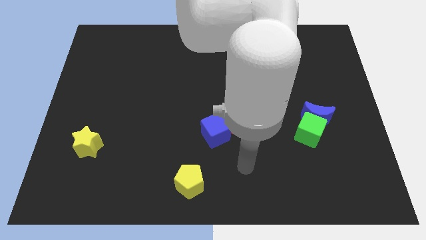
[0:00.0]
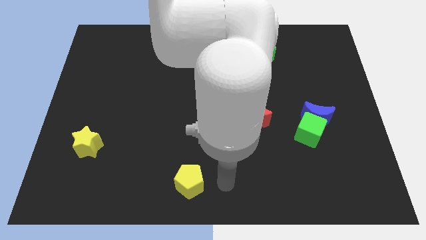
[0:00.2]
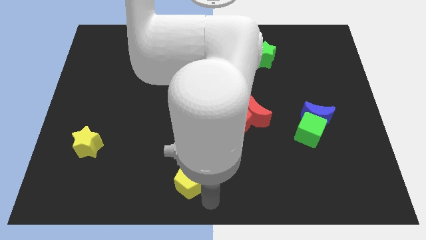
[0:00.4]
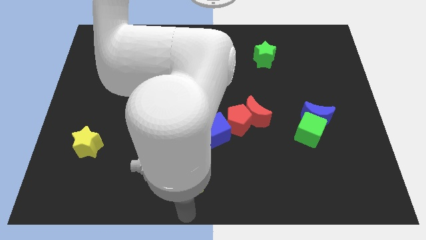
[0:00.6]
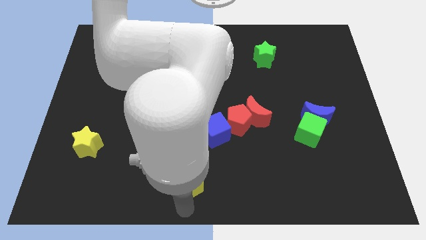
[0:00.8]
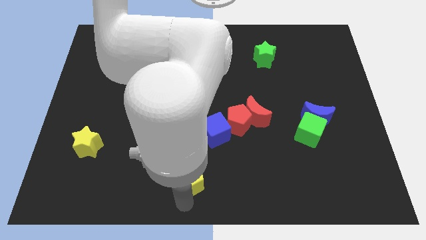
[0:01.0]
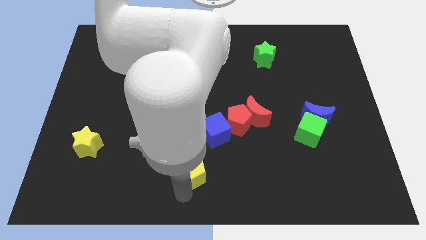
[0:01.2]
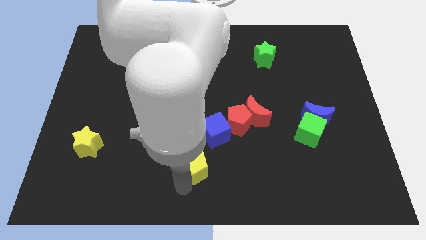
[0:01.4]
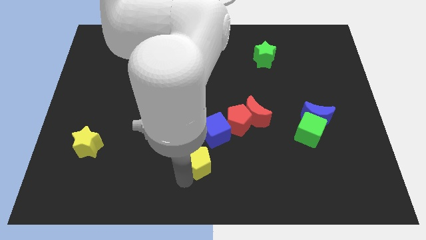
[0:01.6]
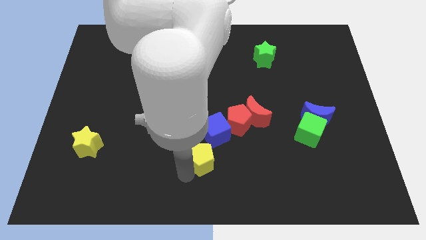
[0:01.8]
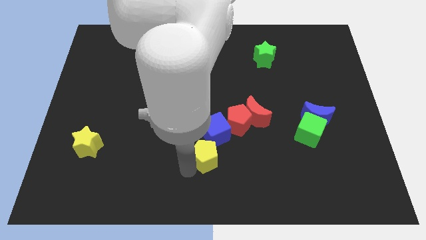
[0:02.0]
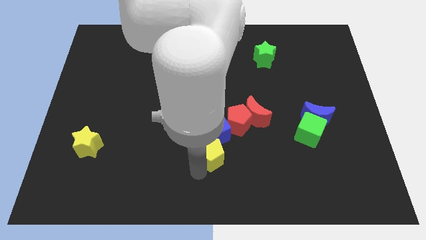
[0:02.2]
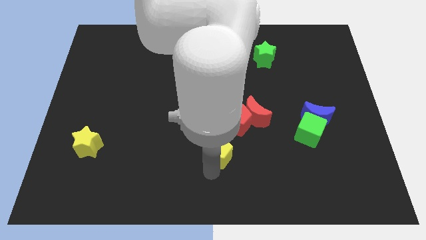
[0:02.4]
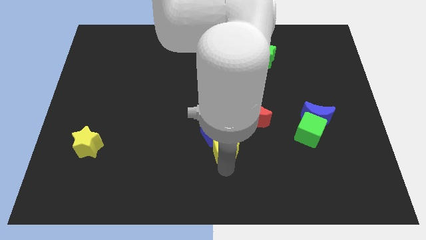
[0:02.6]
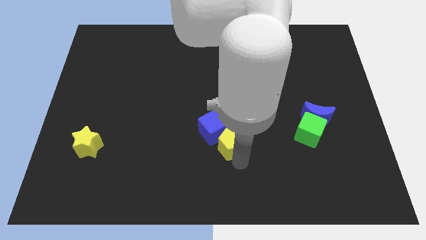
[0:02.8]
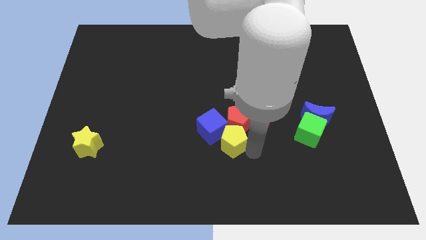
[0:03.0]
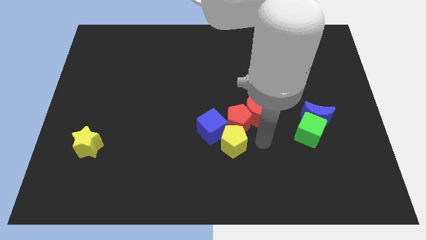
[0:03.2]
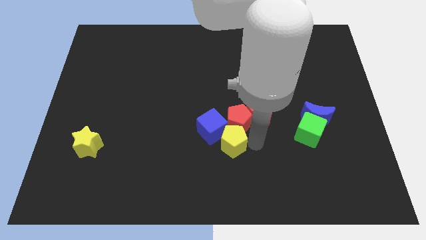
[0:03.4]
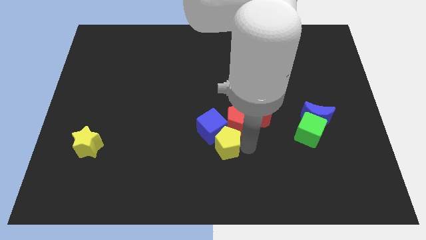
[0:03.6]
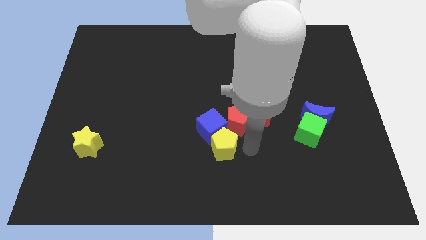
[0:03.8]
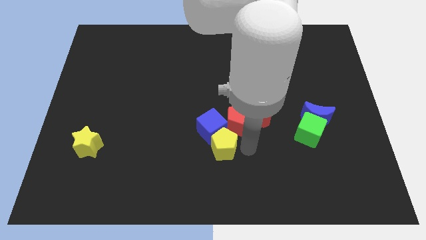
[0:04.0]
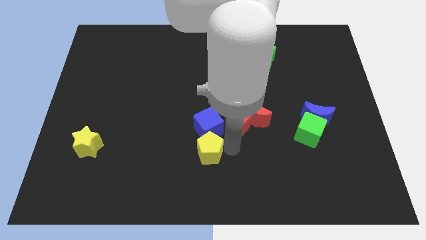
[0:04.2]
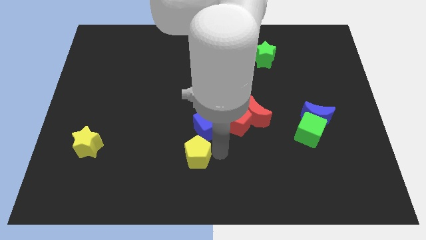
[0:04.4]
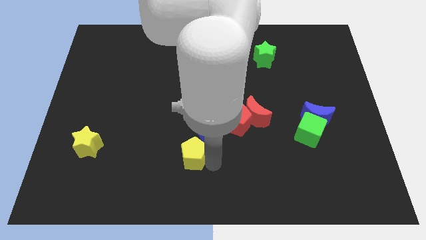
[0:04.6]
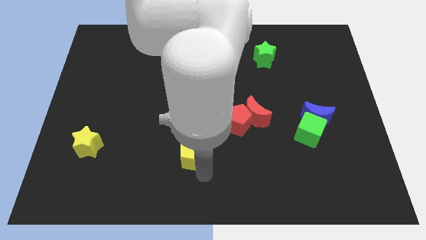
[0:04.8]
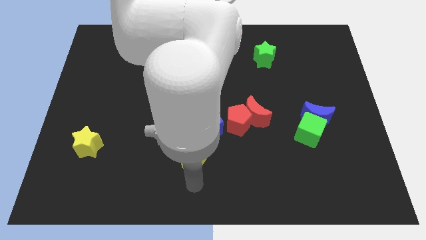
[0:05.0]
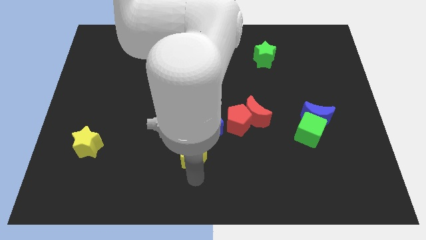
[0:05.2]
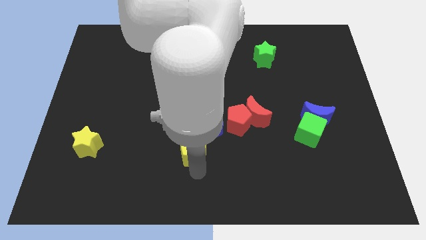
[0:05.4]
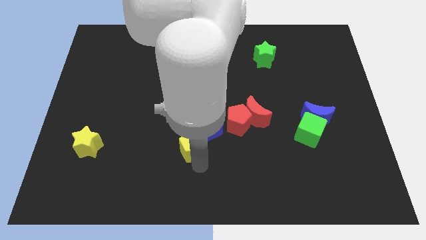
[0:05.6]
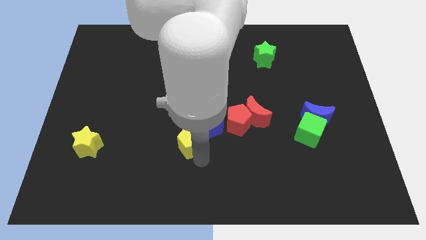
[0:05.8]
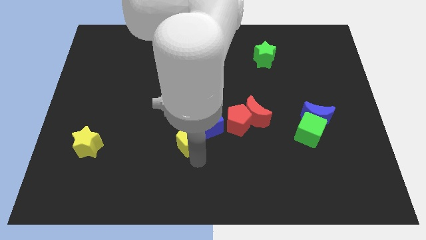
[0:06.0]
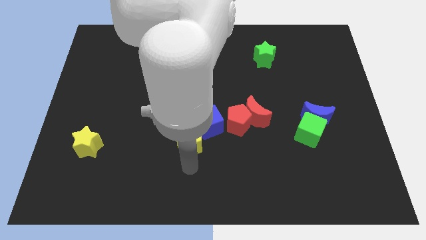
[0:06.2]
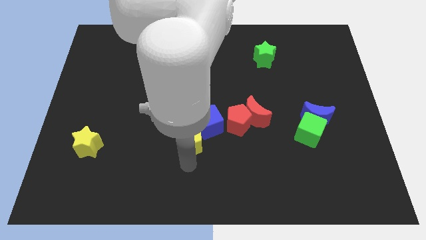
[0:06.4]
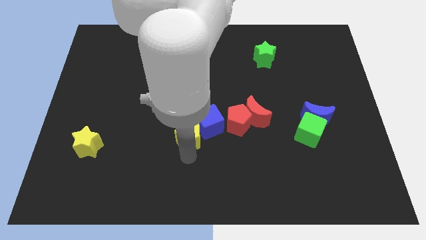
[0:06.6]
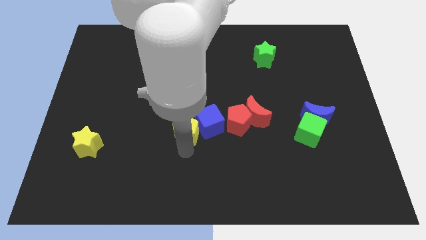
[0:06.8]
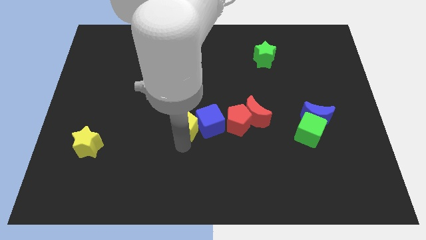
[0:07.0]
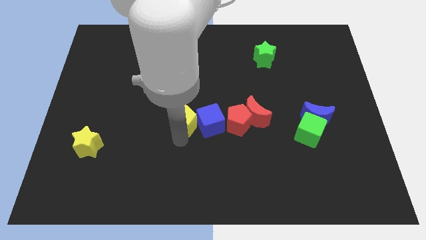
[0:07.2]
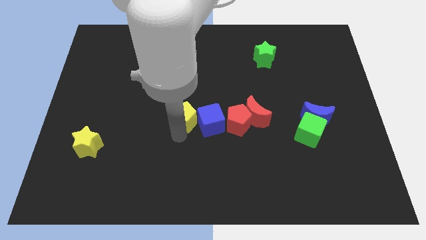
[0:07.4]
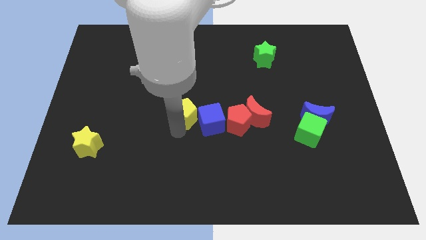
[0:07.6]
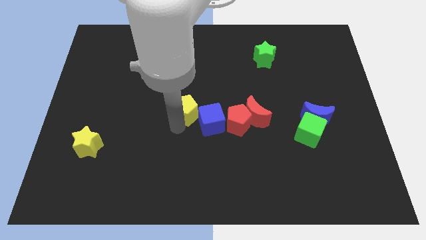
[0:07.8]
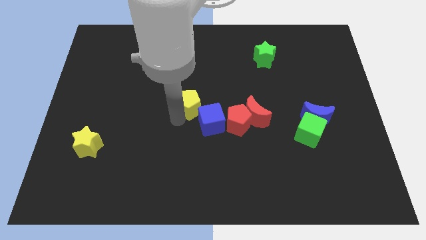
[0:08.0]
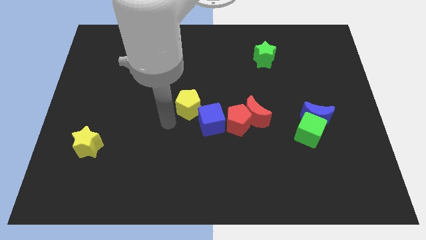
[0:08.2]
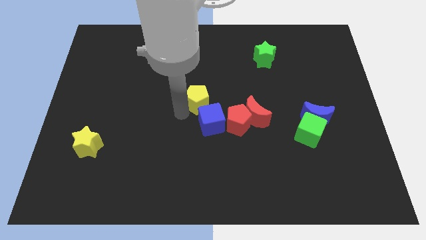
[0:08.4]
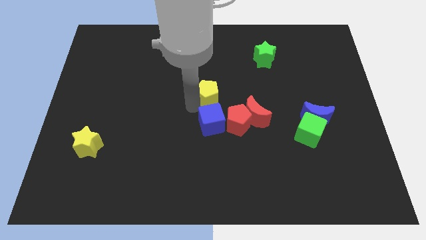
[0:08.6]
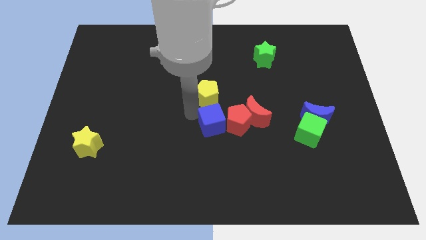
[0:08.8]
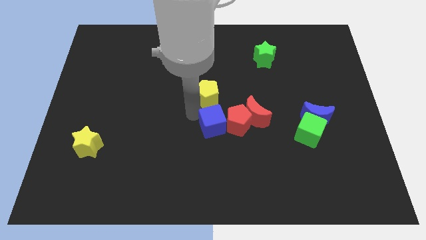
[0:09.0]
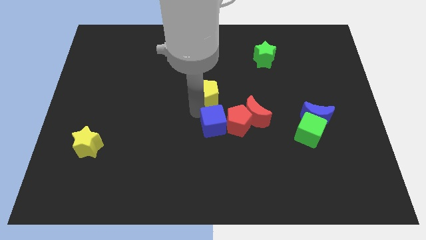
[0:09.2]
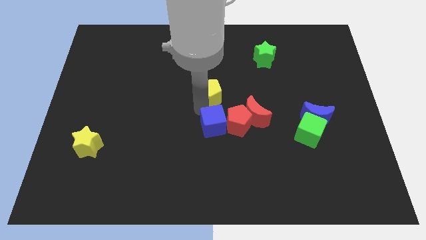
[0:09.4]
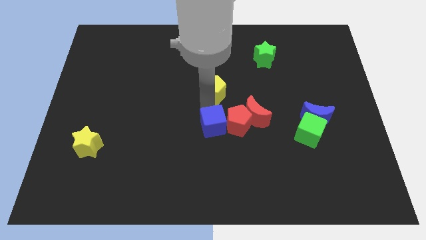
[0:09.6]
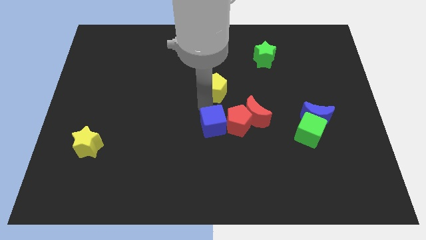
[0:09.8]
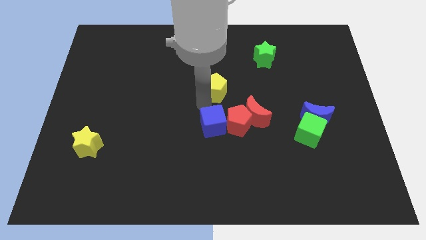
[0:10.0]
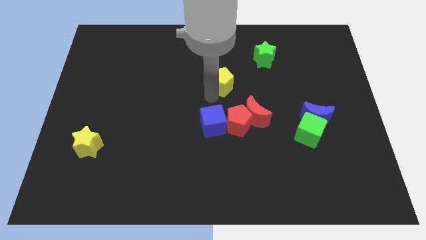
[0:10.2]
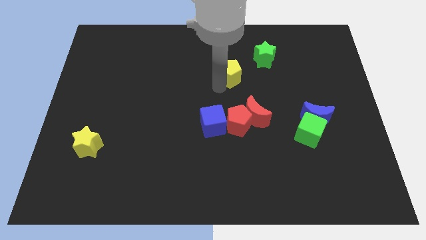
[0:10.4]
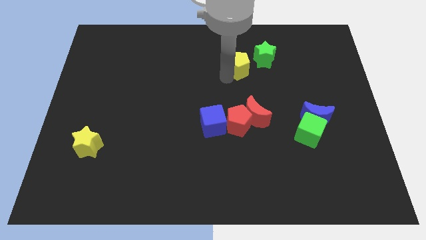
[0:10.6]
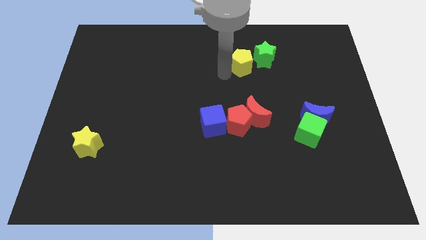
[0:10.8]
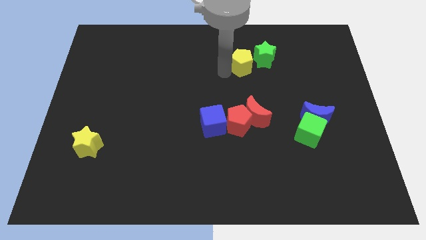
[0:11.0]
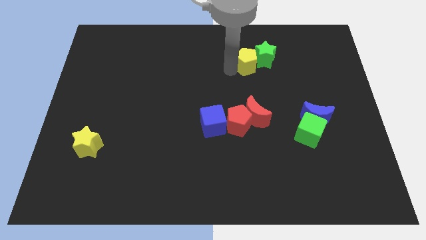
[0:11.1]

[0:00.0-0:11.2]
slide the yellow pentagon next to the green star

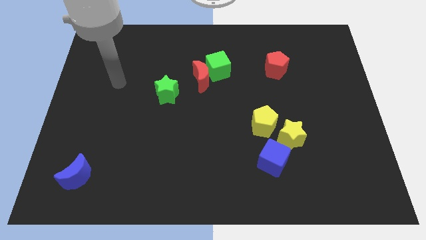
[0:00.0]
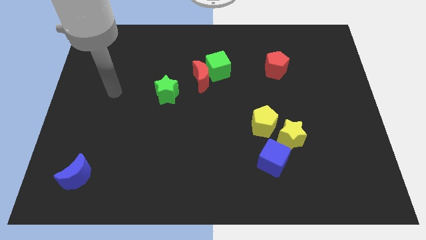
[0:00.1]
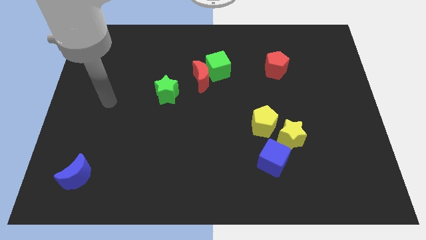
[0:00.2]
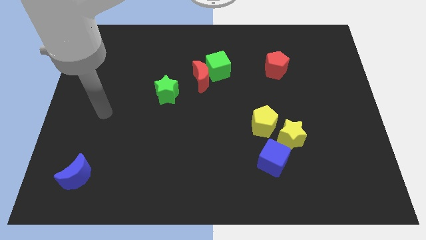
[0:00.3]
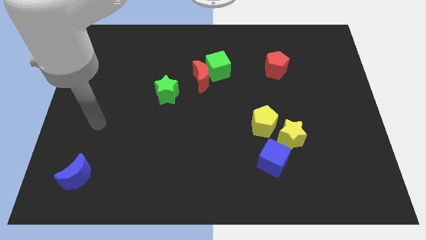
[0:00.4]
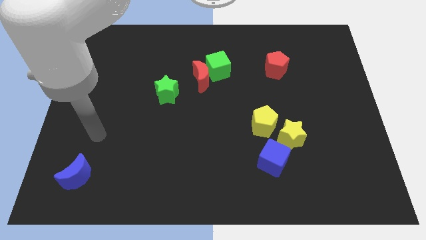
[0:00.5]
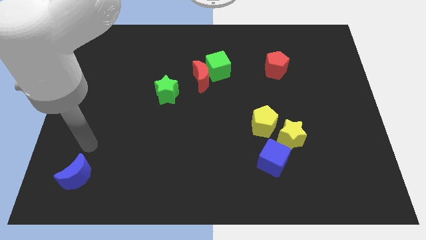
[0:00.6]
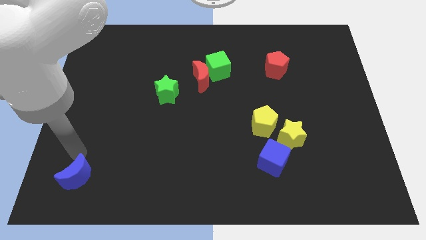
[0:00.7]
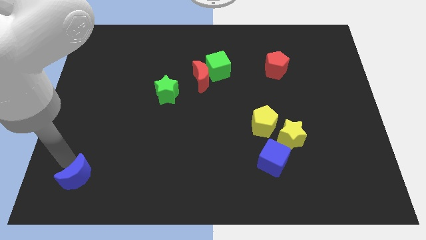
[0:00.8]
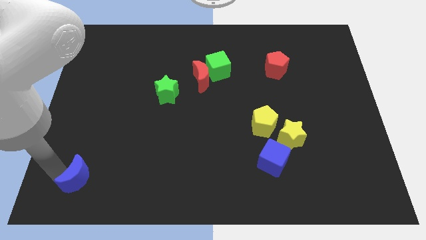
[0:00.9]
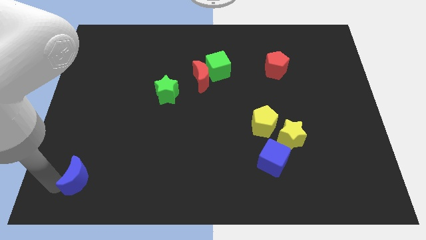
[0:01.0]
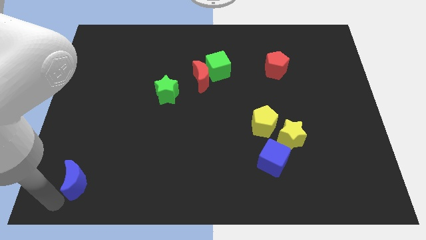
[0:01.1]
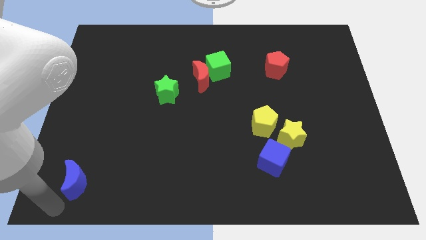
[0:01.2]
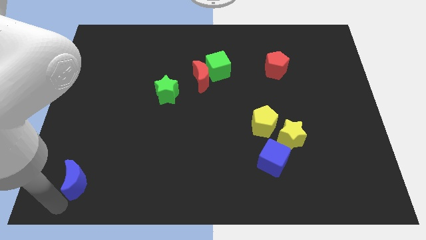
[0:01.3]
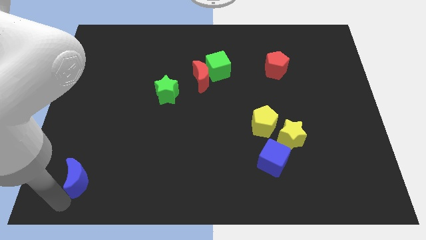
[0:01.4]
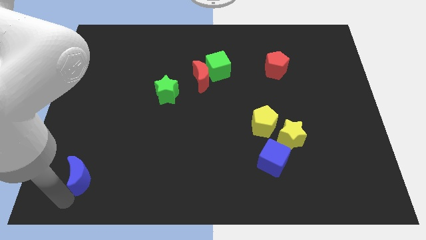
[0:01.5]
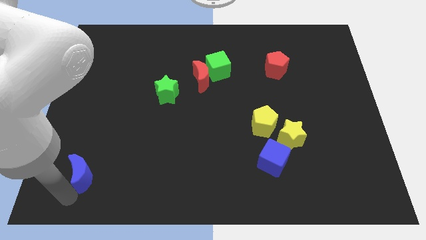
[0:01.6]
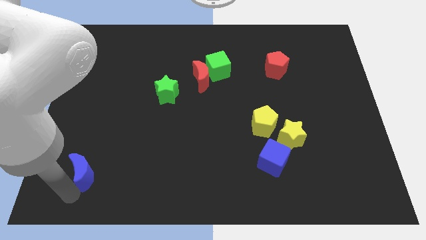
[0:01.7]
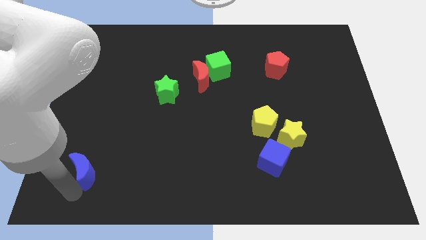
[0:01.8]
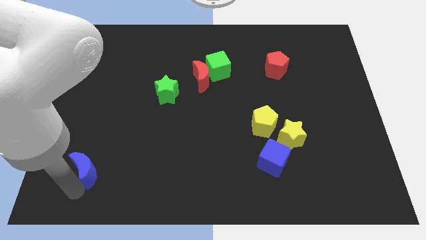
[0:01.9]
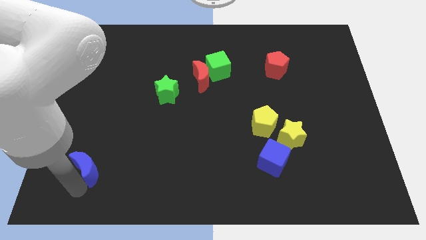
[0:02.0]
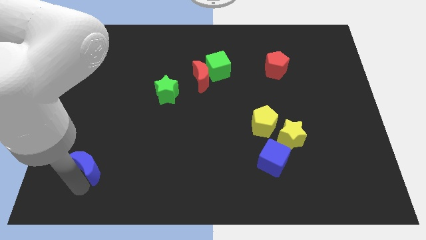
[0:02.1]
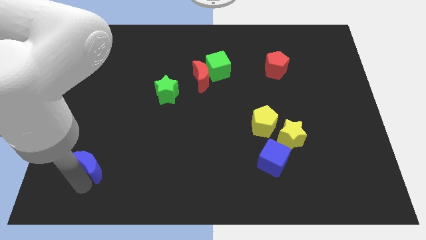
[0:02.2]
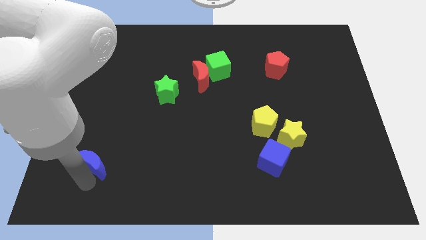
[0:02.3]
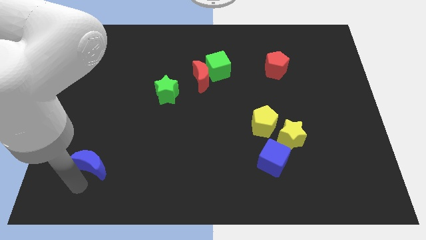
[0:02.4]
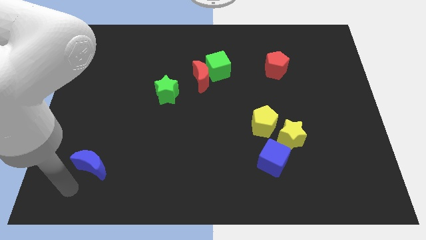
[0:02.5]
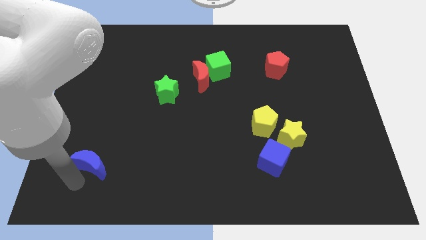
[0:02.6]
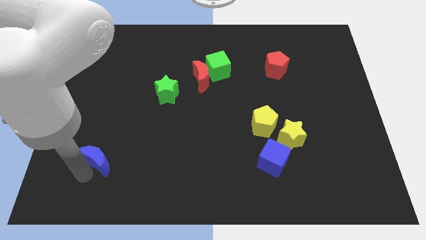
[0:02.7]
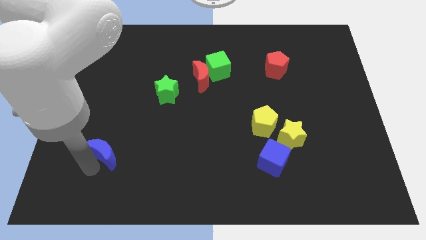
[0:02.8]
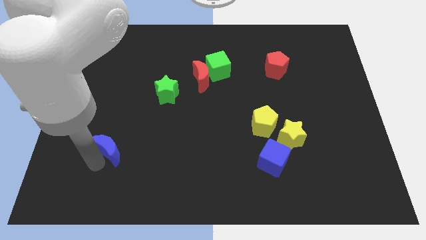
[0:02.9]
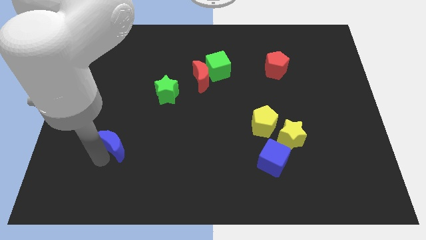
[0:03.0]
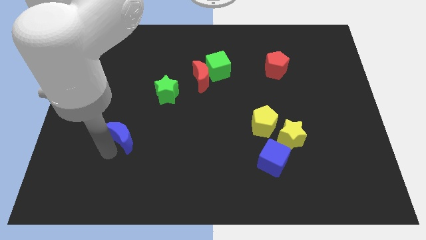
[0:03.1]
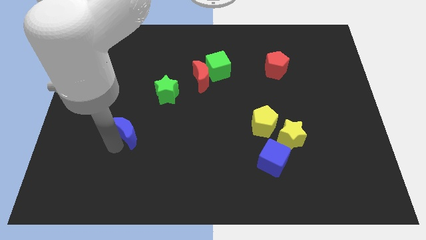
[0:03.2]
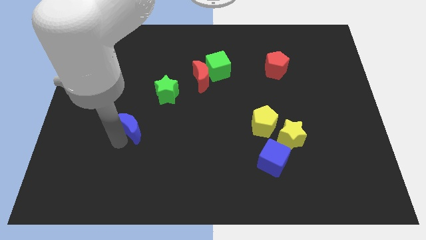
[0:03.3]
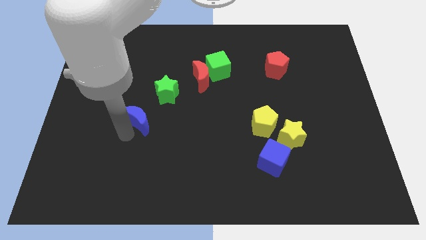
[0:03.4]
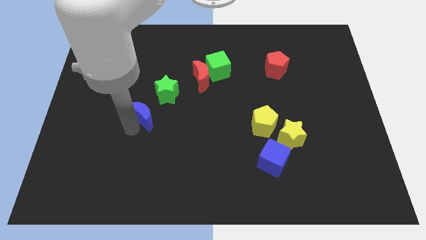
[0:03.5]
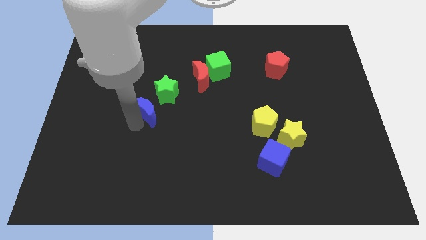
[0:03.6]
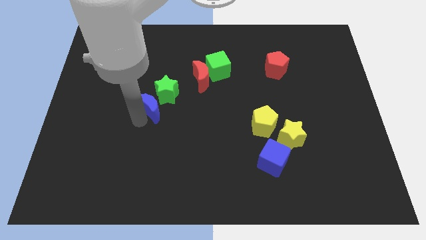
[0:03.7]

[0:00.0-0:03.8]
push the blue moon close to the green star
